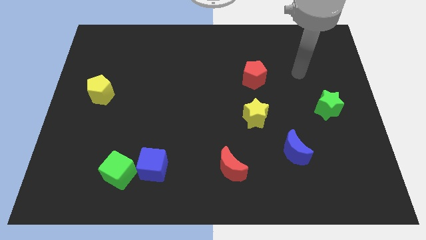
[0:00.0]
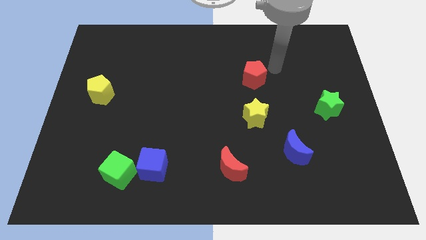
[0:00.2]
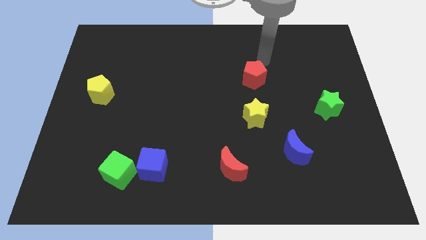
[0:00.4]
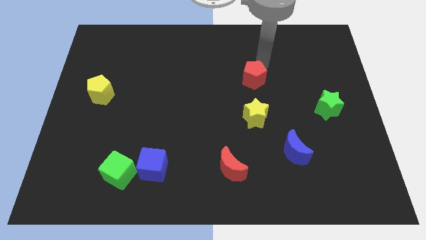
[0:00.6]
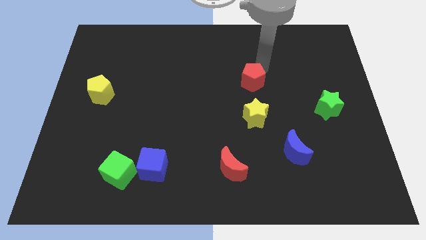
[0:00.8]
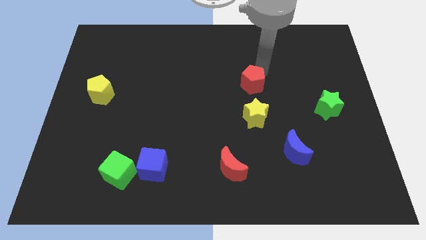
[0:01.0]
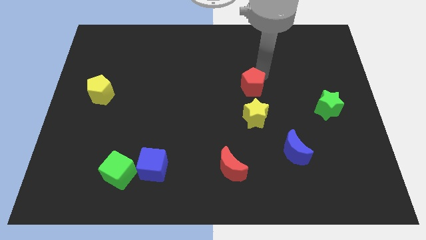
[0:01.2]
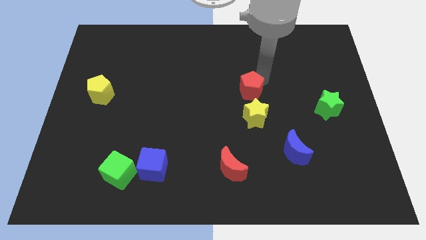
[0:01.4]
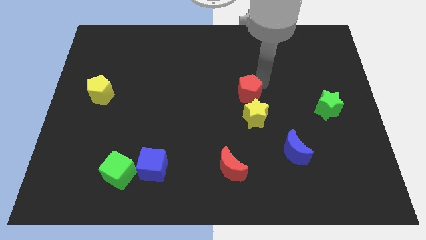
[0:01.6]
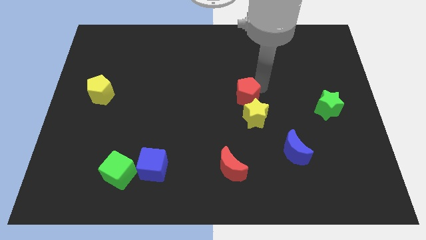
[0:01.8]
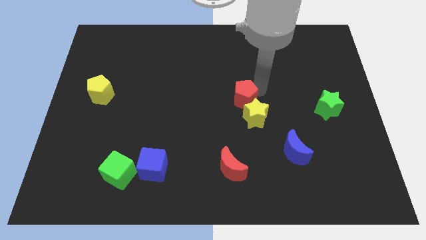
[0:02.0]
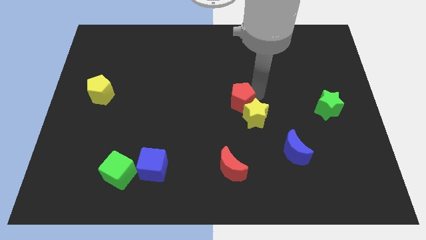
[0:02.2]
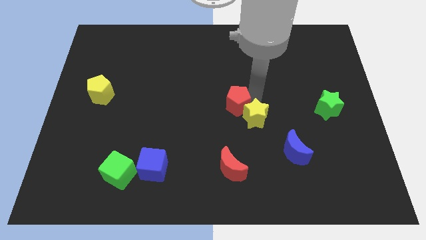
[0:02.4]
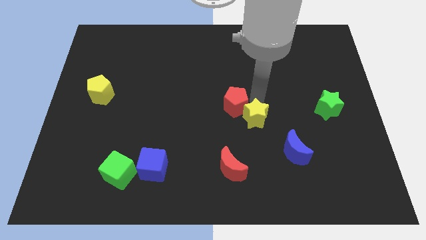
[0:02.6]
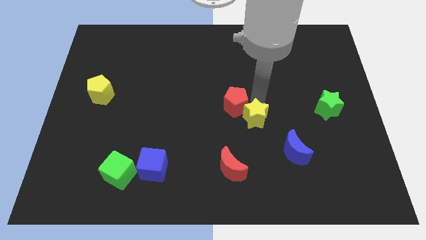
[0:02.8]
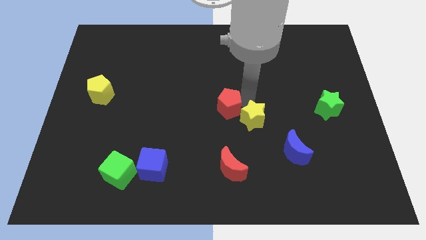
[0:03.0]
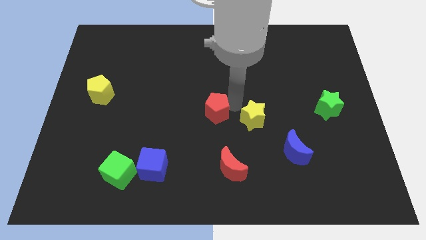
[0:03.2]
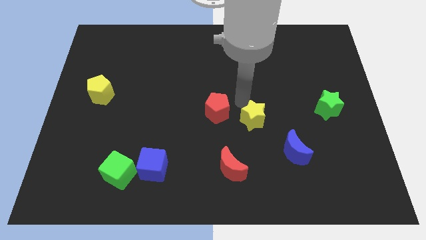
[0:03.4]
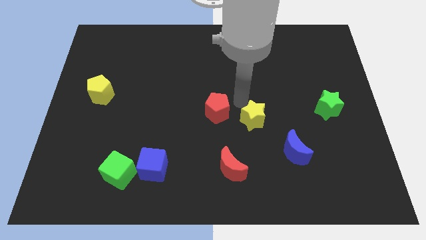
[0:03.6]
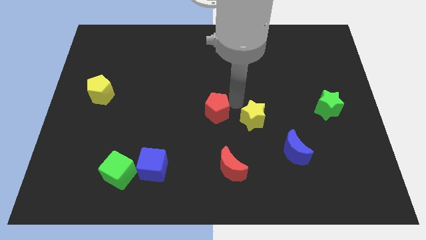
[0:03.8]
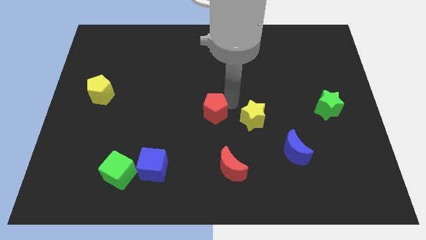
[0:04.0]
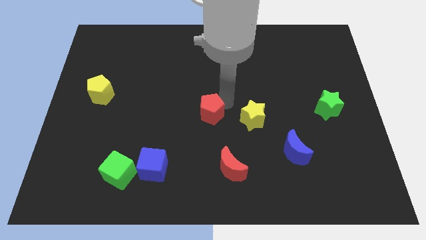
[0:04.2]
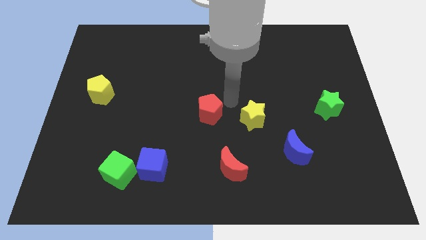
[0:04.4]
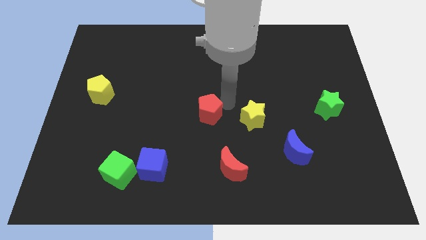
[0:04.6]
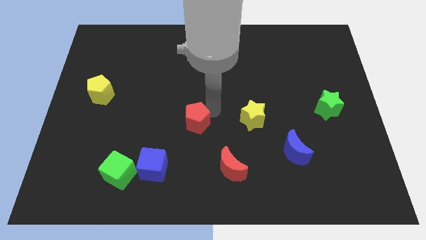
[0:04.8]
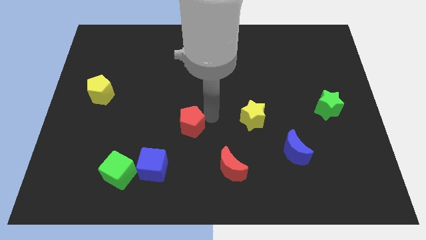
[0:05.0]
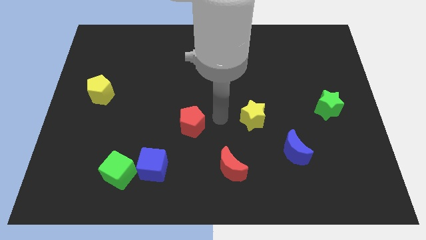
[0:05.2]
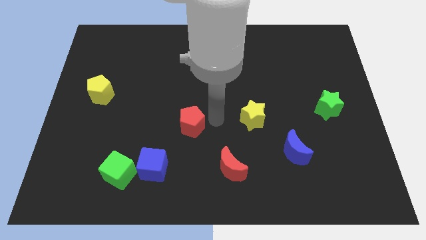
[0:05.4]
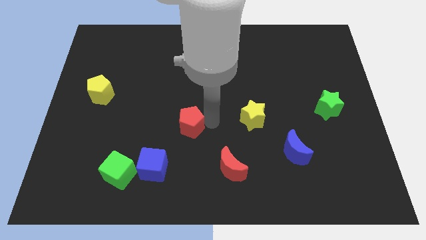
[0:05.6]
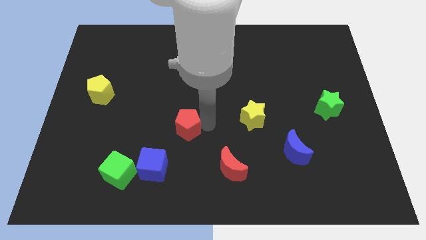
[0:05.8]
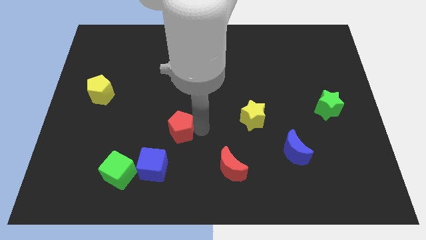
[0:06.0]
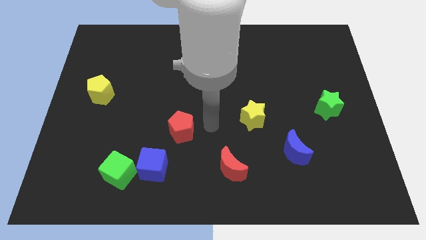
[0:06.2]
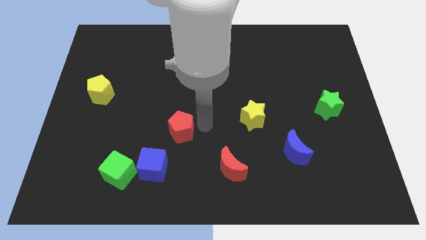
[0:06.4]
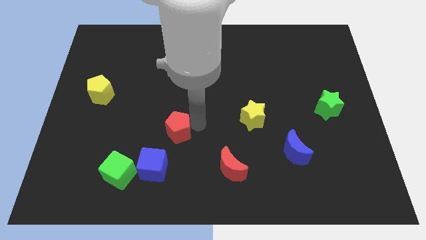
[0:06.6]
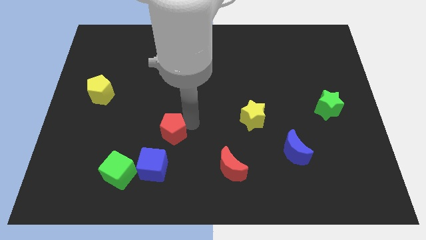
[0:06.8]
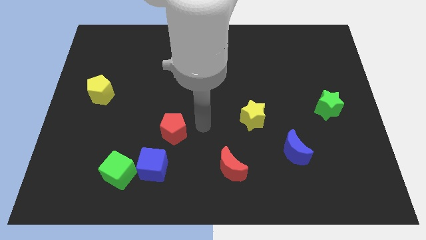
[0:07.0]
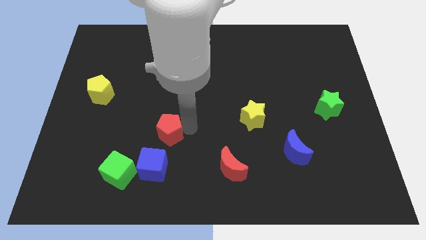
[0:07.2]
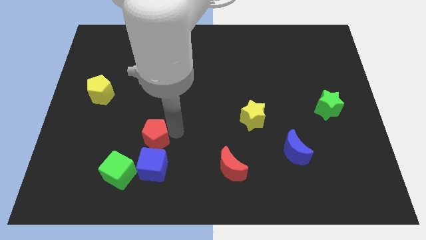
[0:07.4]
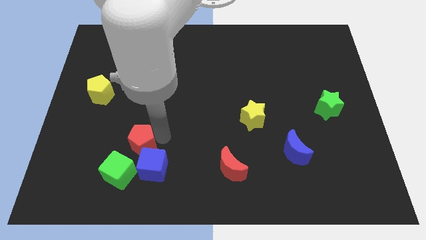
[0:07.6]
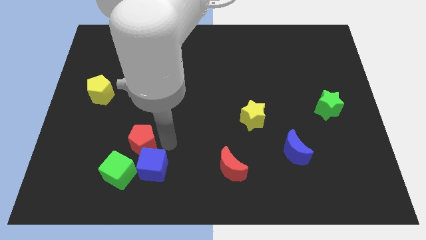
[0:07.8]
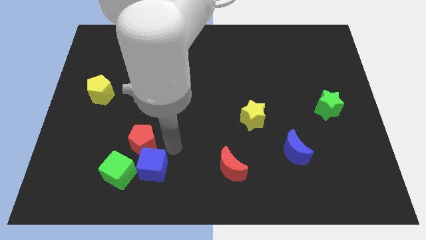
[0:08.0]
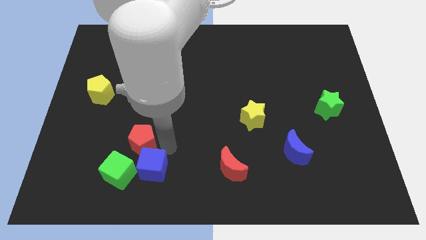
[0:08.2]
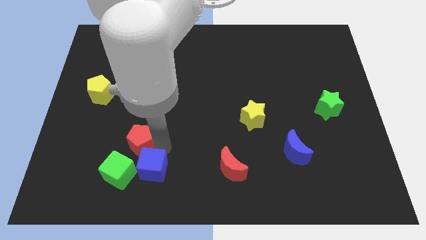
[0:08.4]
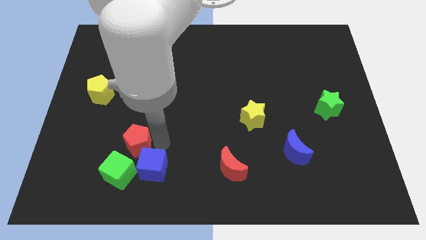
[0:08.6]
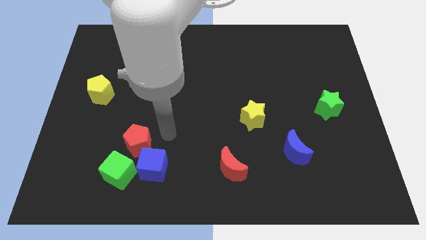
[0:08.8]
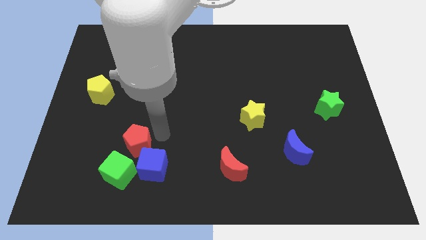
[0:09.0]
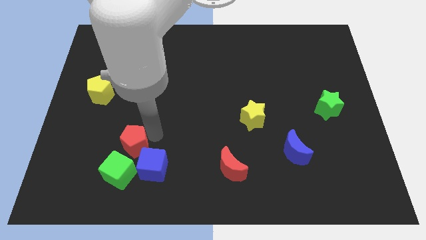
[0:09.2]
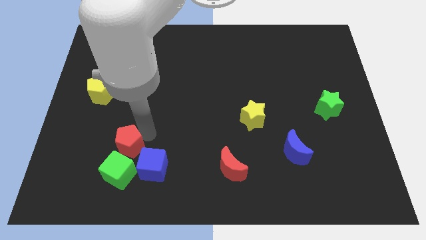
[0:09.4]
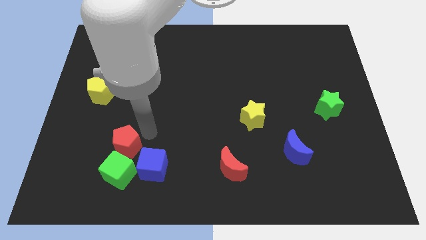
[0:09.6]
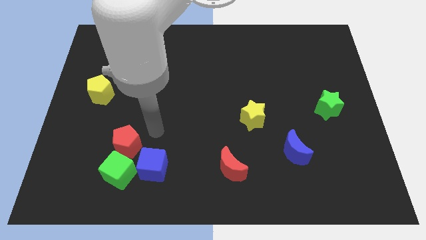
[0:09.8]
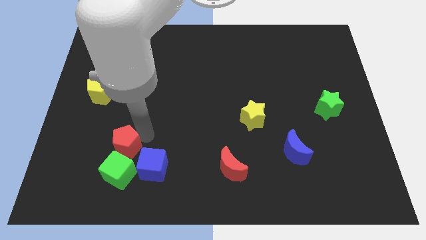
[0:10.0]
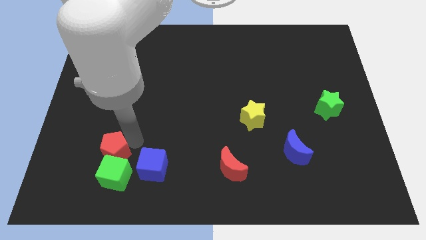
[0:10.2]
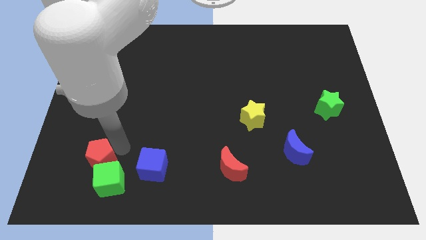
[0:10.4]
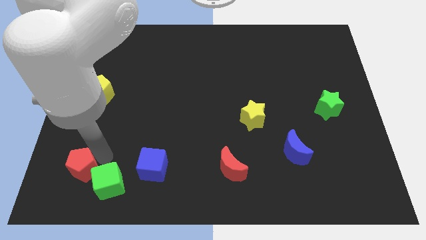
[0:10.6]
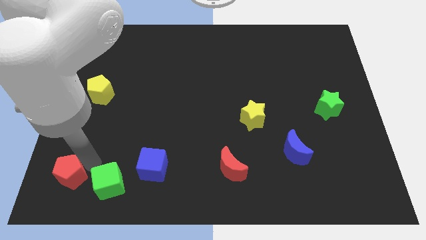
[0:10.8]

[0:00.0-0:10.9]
put the red pentagon to the bottom left

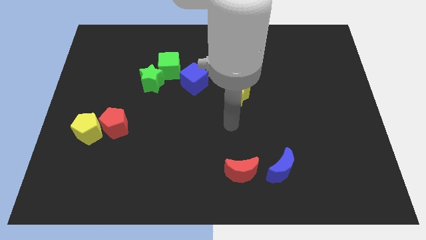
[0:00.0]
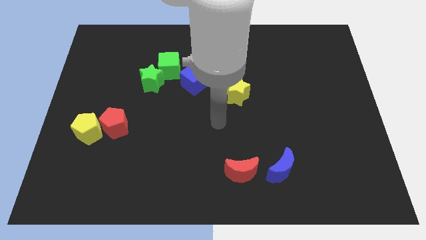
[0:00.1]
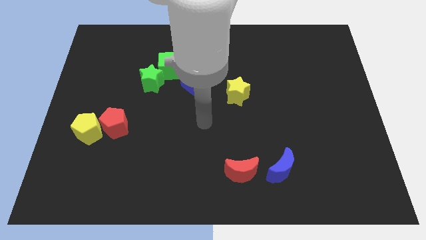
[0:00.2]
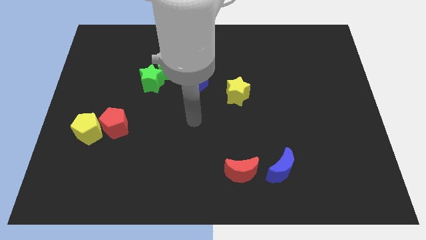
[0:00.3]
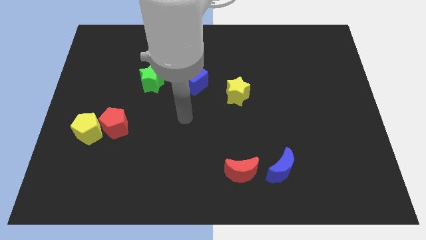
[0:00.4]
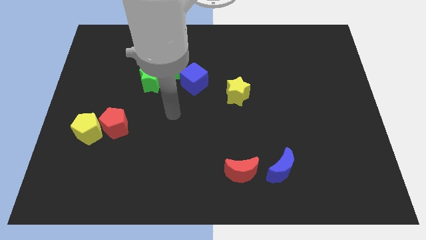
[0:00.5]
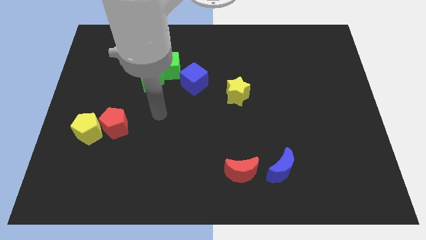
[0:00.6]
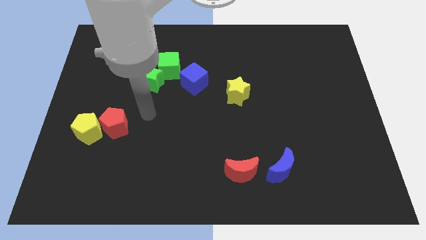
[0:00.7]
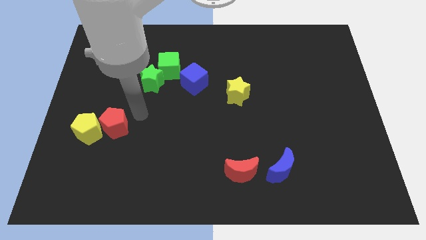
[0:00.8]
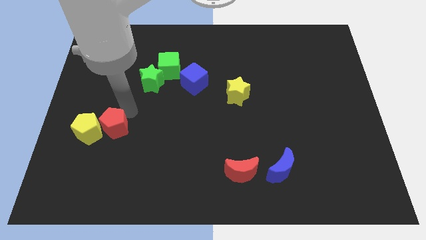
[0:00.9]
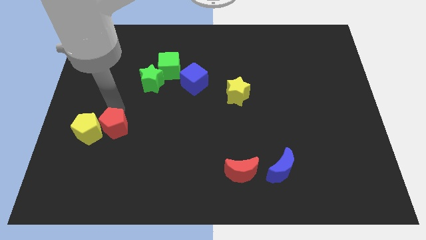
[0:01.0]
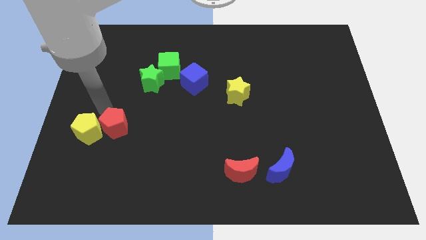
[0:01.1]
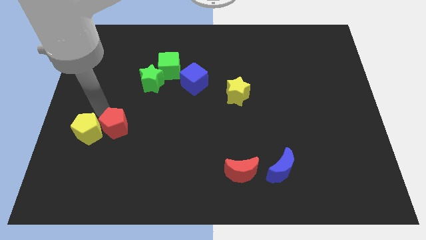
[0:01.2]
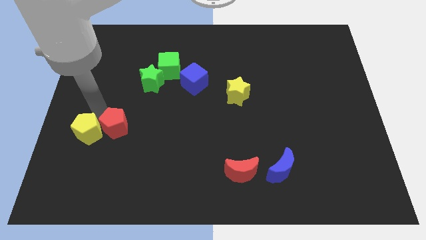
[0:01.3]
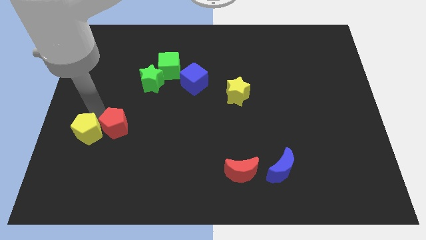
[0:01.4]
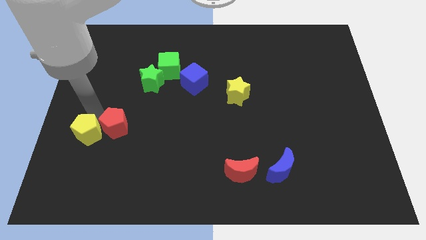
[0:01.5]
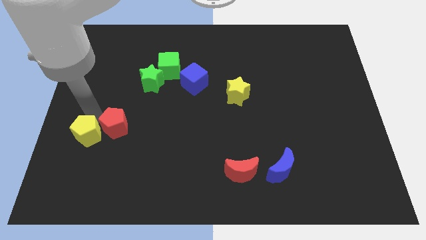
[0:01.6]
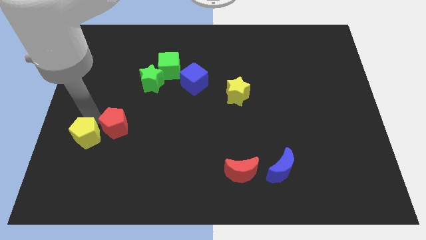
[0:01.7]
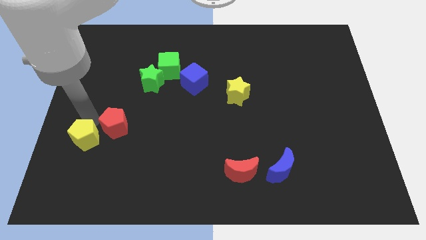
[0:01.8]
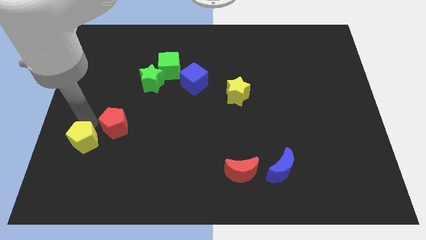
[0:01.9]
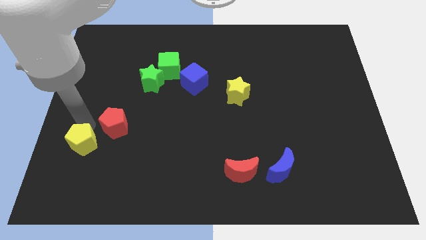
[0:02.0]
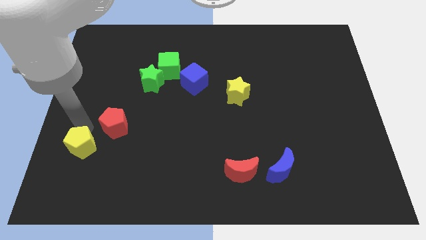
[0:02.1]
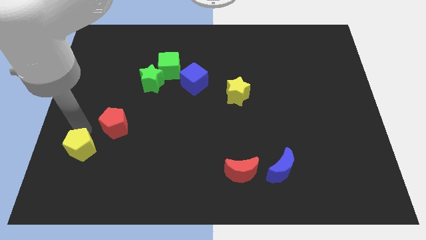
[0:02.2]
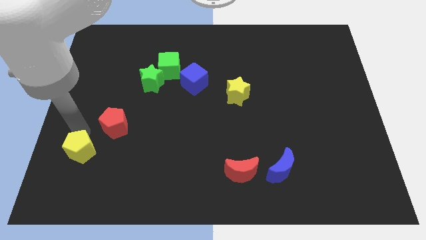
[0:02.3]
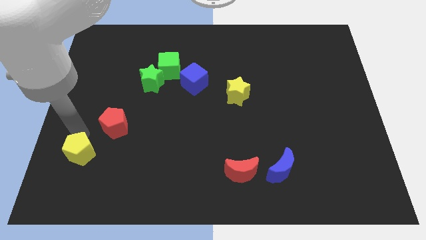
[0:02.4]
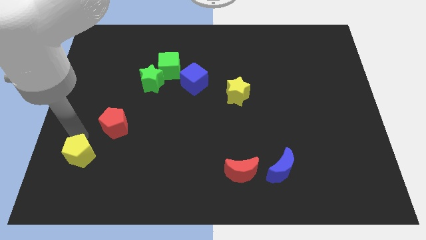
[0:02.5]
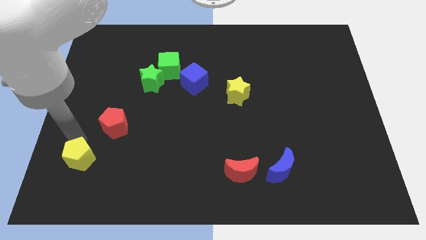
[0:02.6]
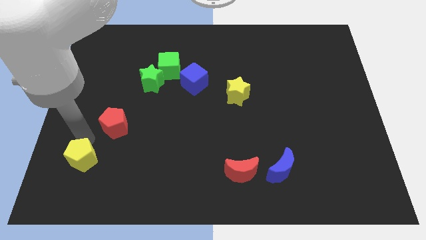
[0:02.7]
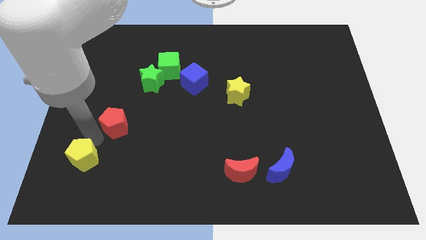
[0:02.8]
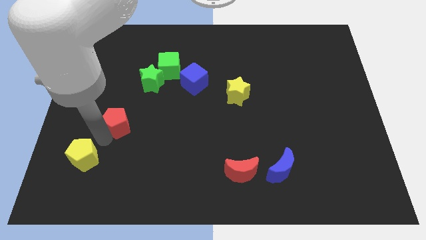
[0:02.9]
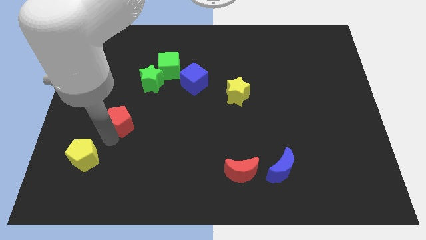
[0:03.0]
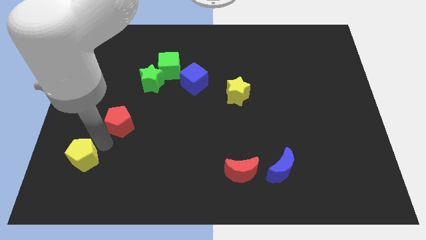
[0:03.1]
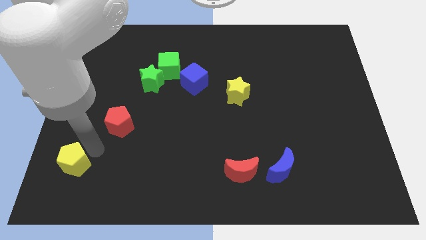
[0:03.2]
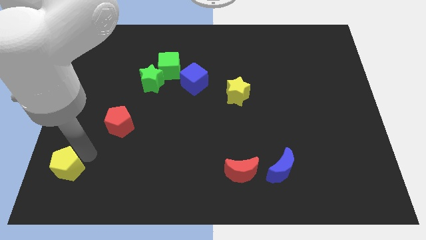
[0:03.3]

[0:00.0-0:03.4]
push the yellow pentagon to the lower left corner
